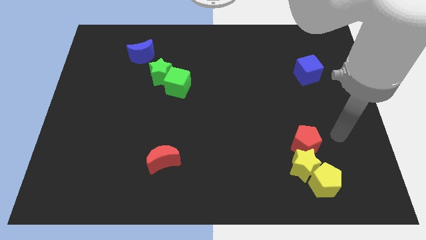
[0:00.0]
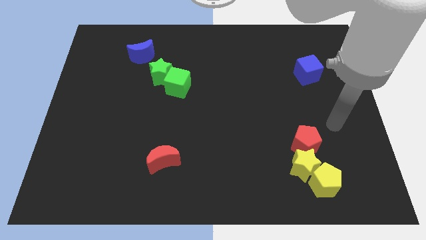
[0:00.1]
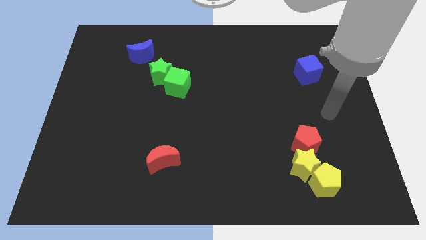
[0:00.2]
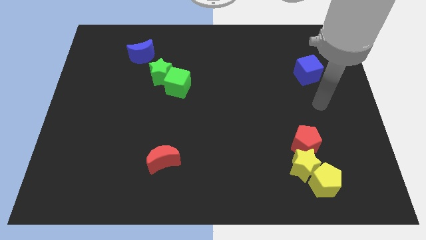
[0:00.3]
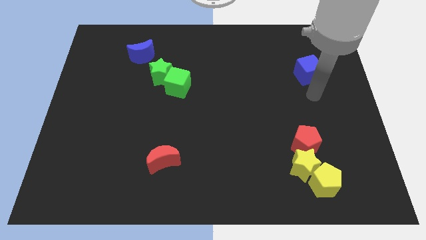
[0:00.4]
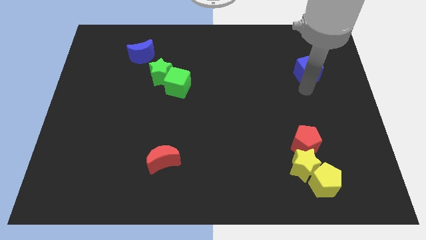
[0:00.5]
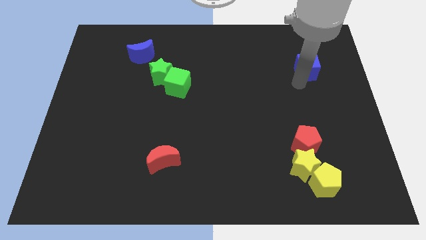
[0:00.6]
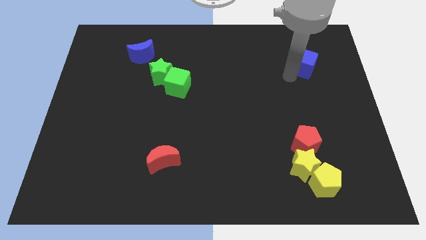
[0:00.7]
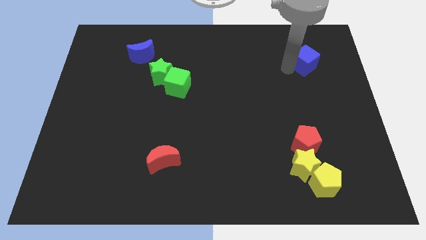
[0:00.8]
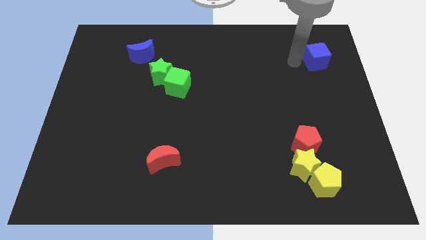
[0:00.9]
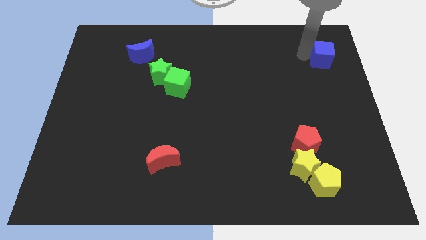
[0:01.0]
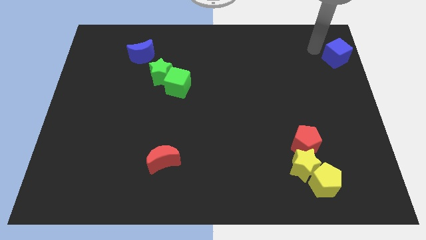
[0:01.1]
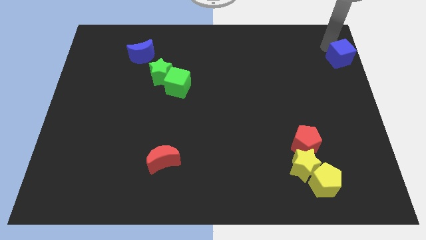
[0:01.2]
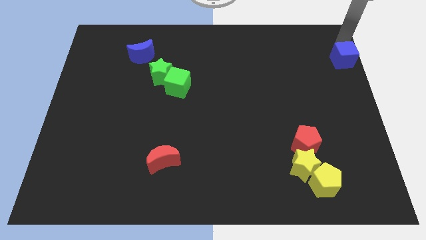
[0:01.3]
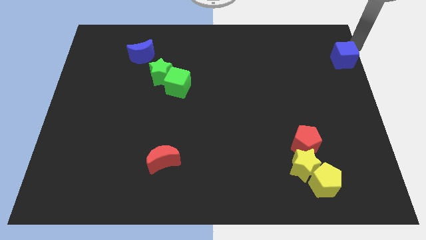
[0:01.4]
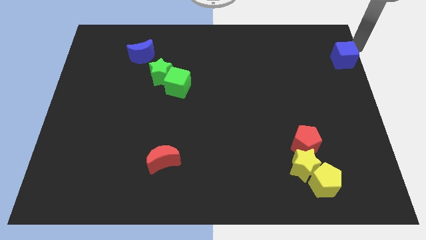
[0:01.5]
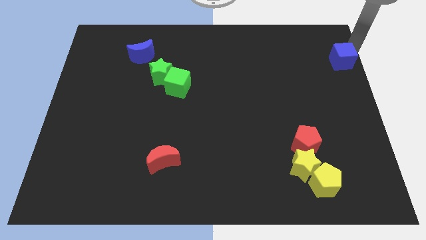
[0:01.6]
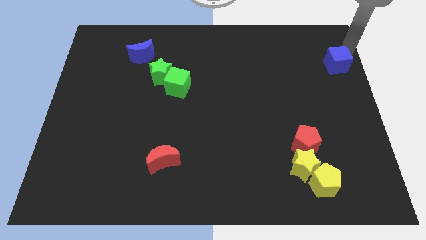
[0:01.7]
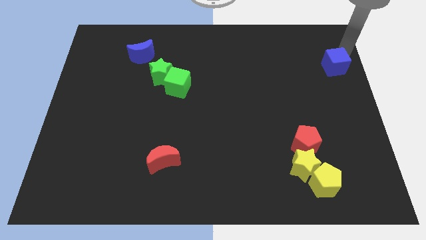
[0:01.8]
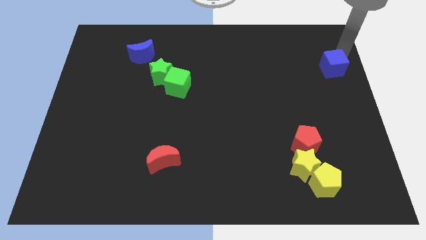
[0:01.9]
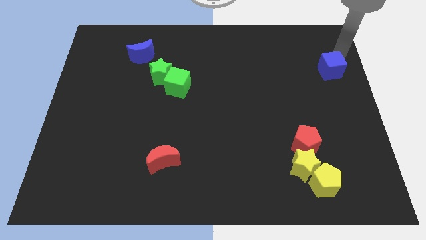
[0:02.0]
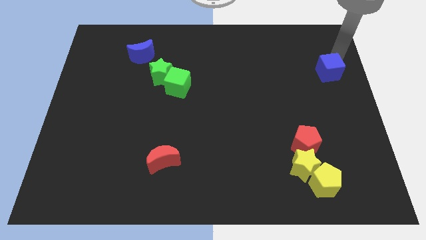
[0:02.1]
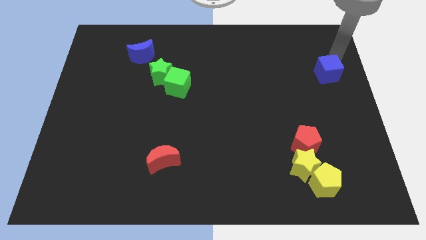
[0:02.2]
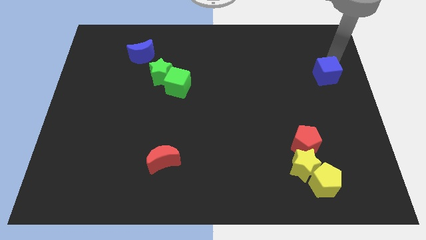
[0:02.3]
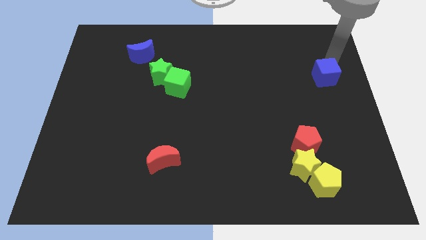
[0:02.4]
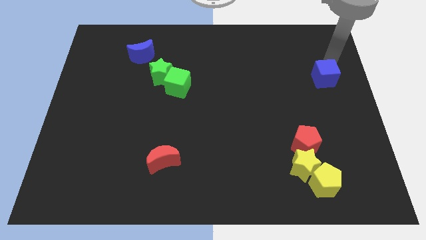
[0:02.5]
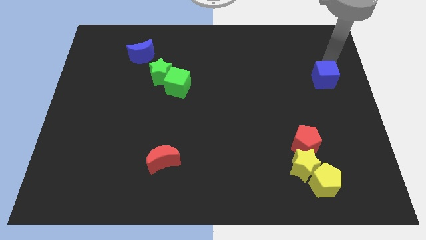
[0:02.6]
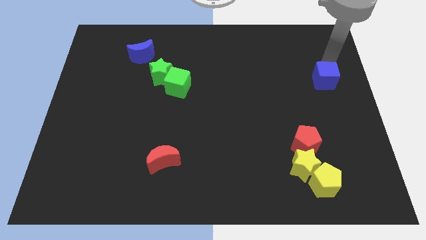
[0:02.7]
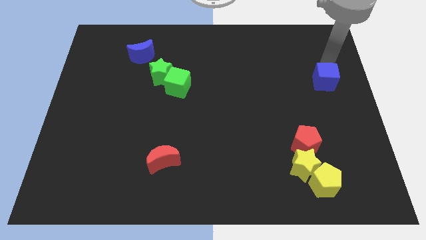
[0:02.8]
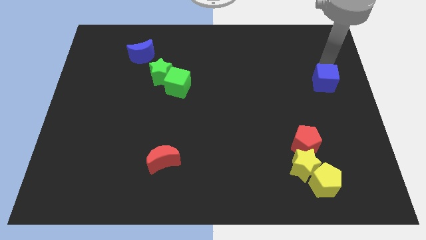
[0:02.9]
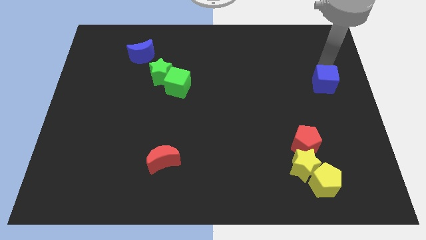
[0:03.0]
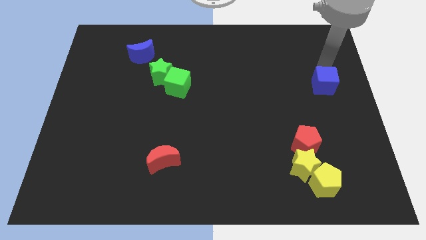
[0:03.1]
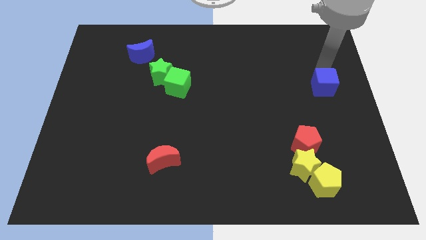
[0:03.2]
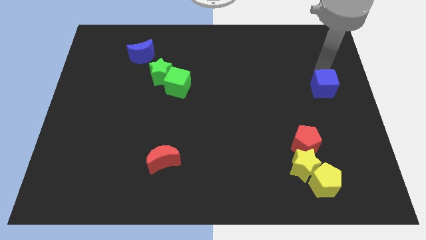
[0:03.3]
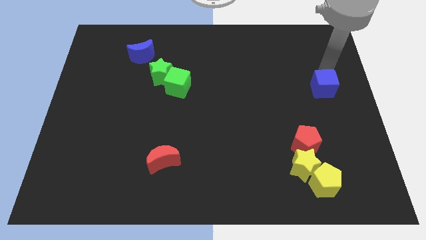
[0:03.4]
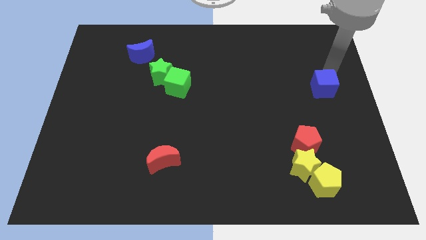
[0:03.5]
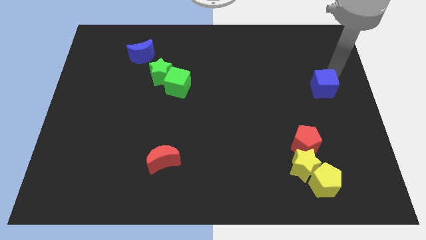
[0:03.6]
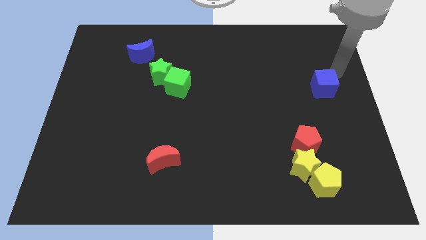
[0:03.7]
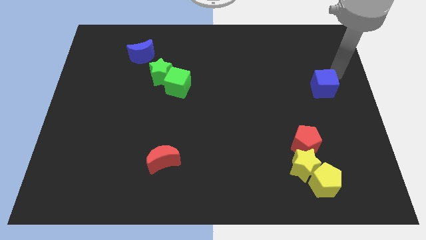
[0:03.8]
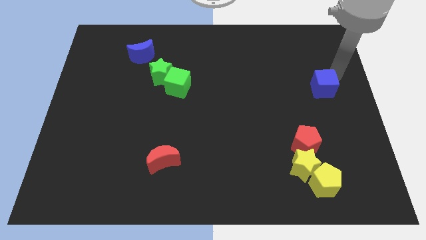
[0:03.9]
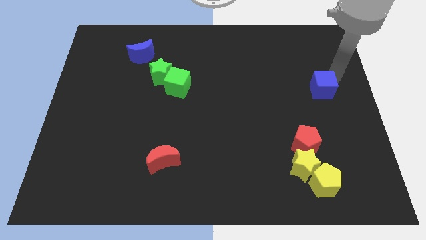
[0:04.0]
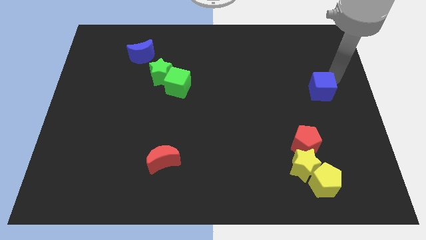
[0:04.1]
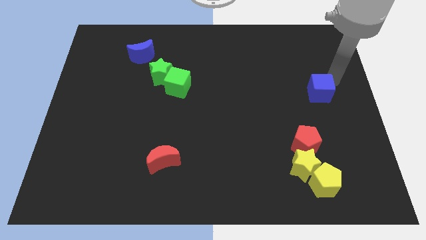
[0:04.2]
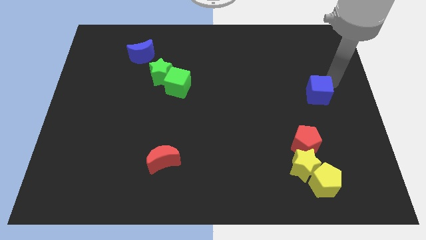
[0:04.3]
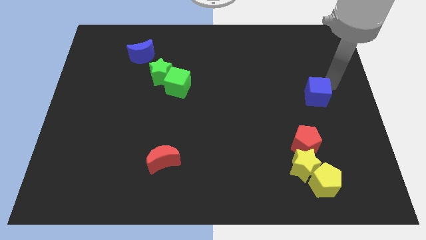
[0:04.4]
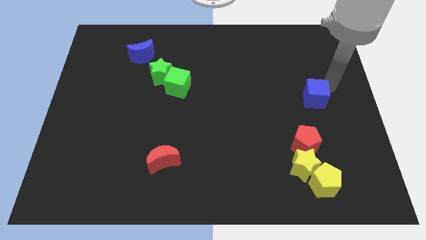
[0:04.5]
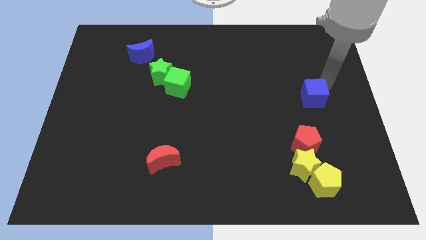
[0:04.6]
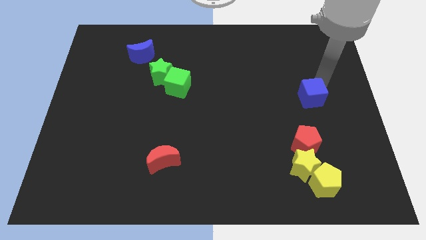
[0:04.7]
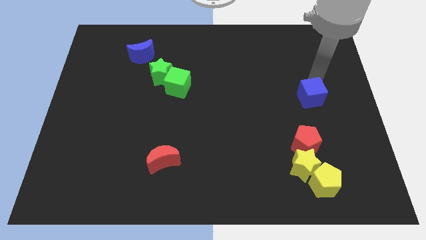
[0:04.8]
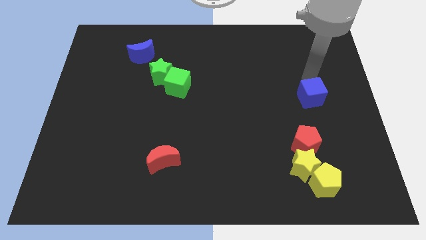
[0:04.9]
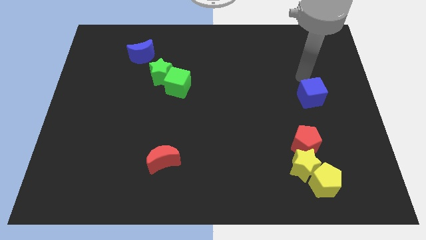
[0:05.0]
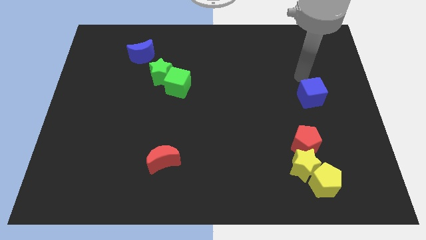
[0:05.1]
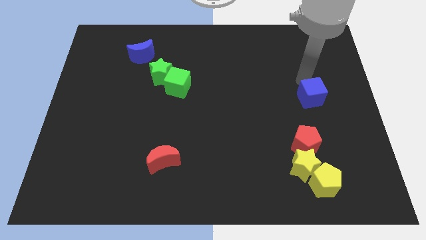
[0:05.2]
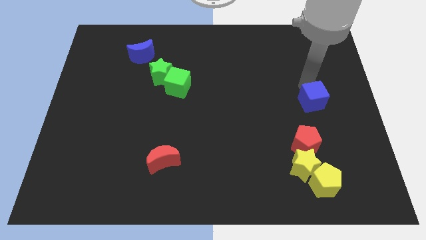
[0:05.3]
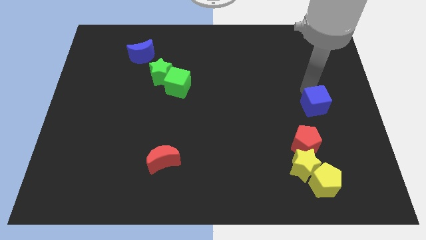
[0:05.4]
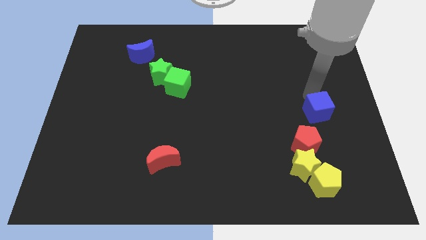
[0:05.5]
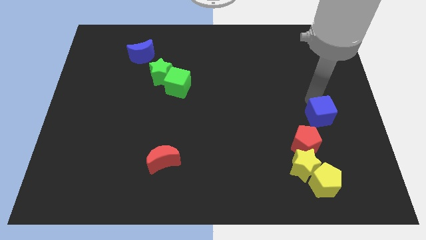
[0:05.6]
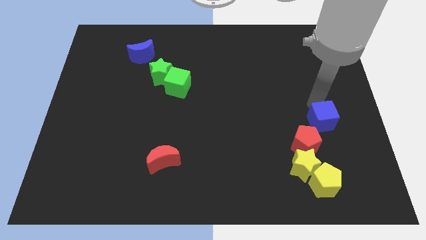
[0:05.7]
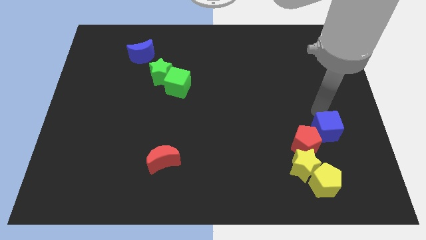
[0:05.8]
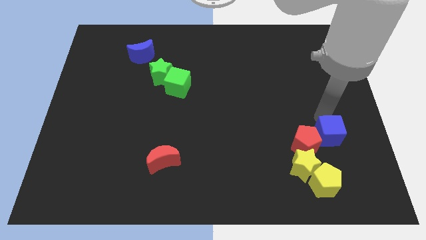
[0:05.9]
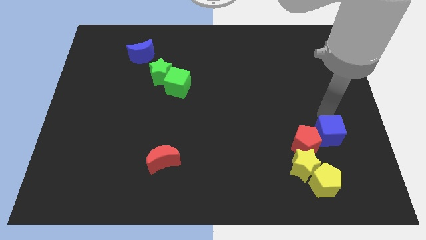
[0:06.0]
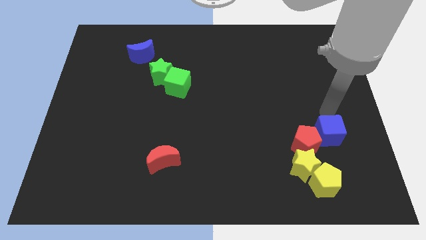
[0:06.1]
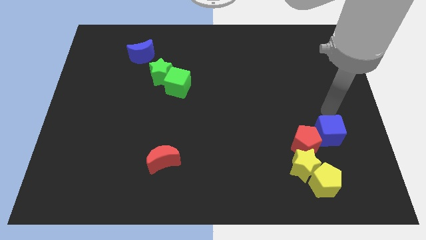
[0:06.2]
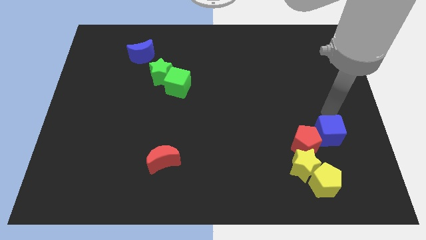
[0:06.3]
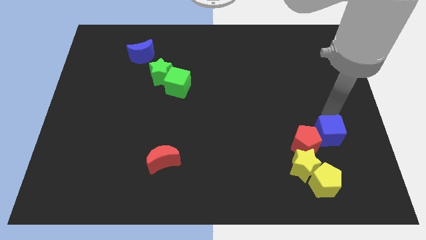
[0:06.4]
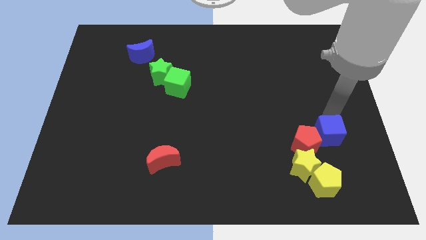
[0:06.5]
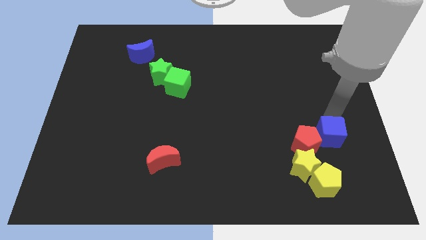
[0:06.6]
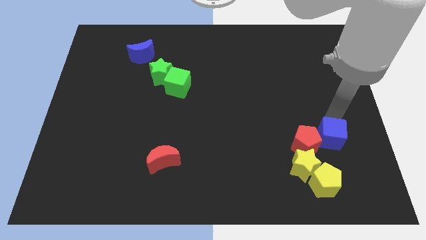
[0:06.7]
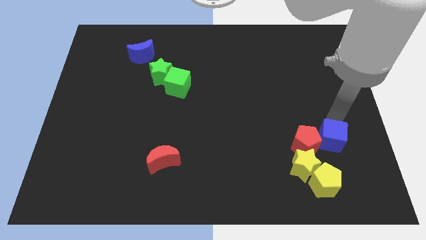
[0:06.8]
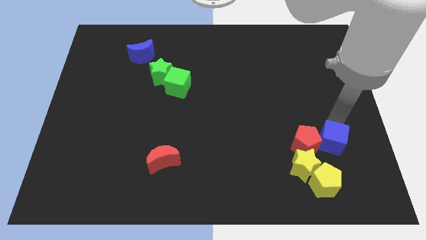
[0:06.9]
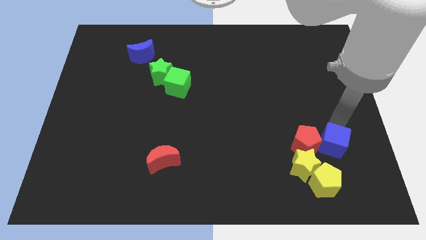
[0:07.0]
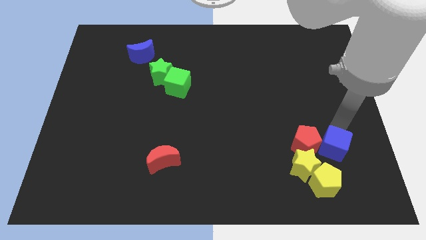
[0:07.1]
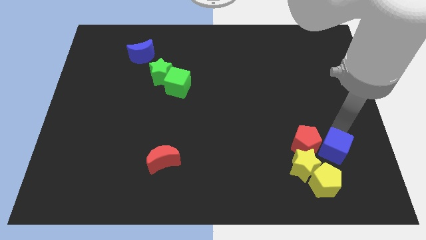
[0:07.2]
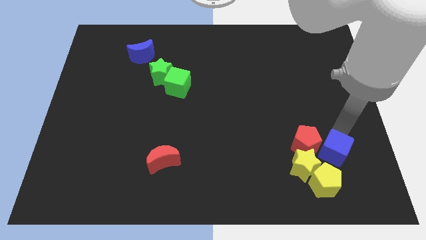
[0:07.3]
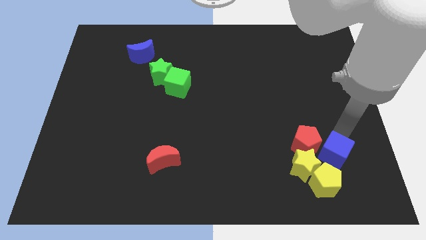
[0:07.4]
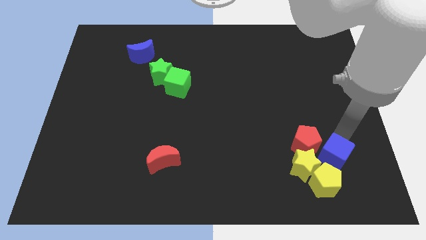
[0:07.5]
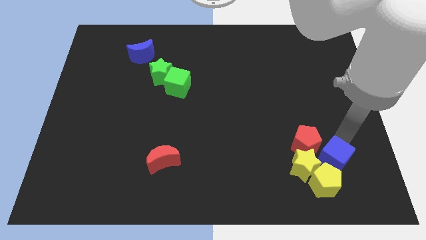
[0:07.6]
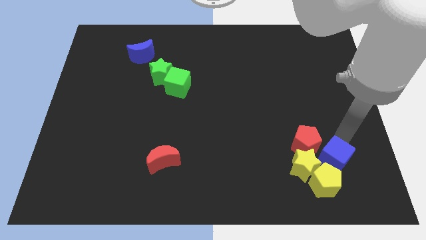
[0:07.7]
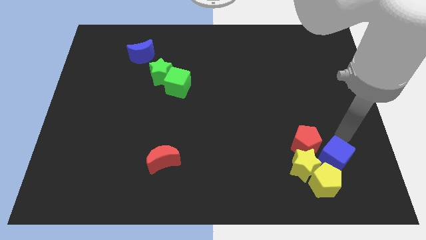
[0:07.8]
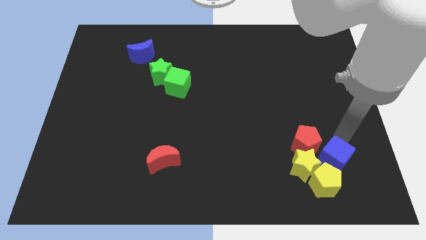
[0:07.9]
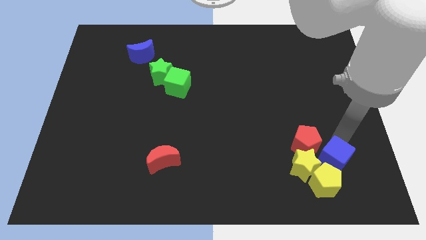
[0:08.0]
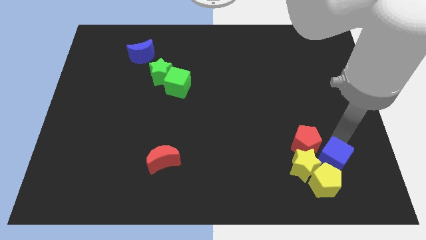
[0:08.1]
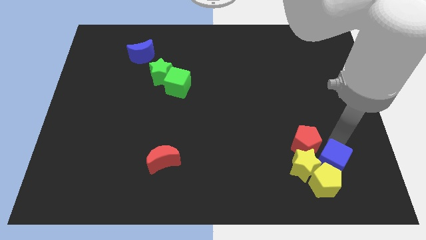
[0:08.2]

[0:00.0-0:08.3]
push the blue cube to the yellow pentagon
